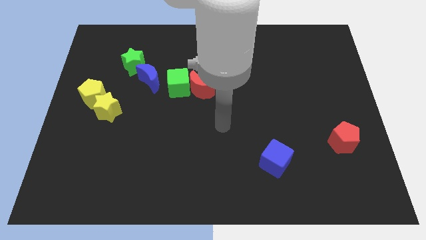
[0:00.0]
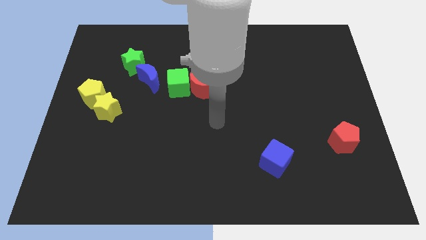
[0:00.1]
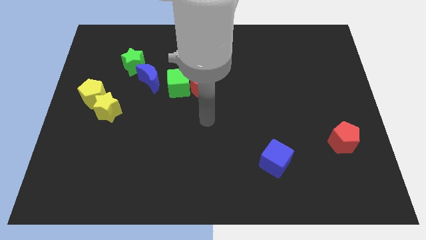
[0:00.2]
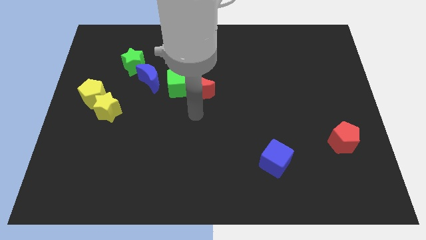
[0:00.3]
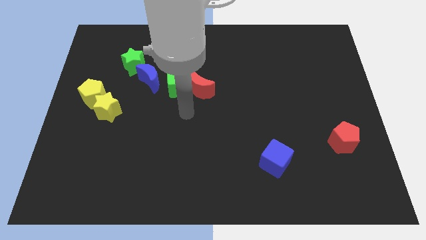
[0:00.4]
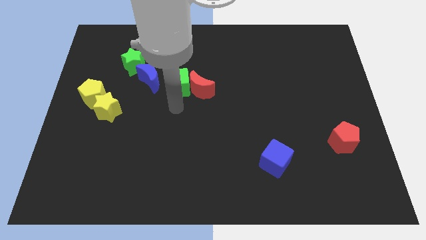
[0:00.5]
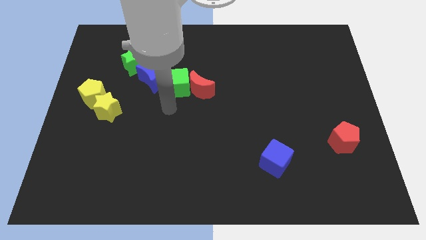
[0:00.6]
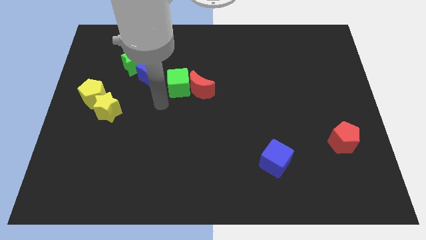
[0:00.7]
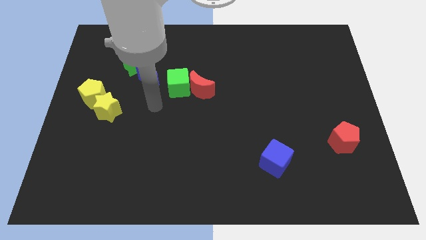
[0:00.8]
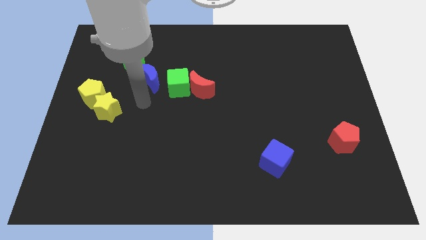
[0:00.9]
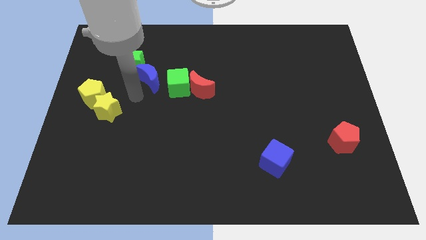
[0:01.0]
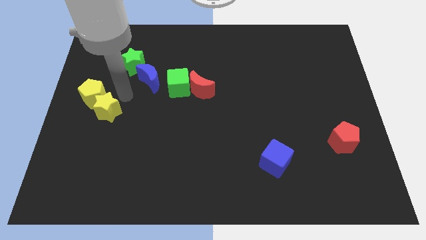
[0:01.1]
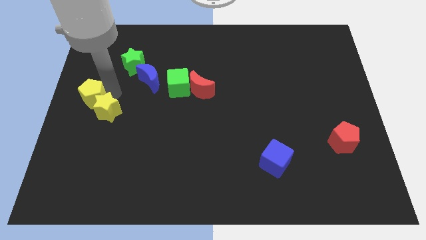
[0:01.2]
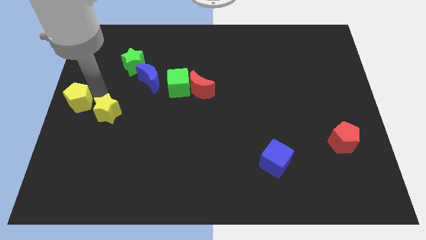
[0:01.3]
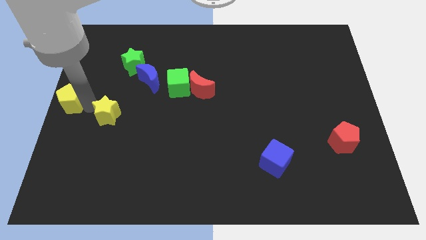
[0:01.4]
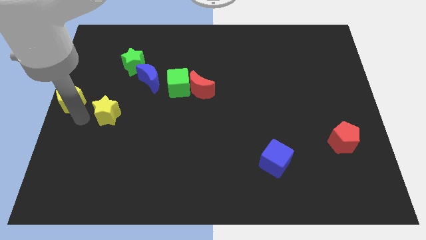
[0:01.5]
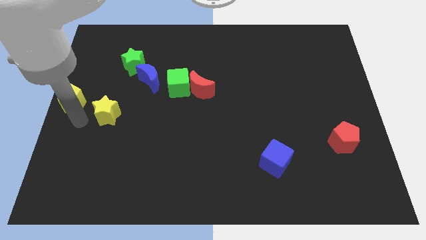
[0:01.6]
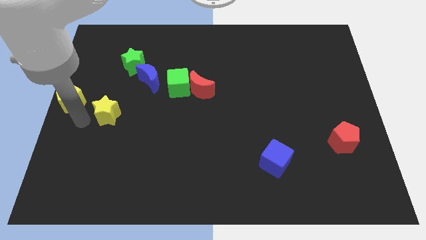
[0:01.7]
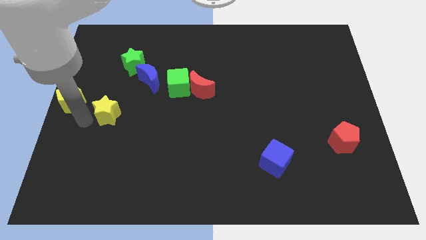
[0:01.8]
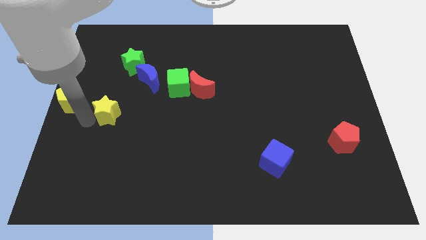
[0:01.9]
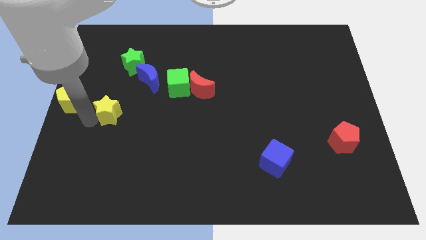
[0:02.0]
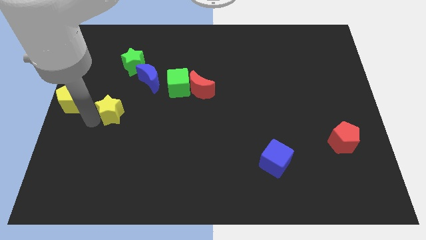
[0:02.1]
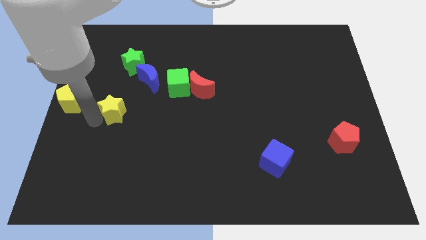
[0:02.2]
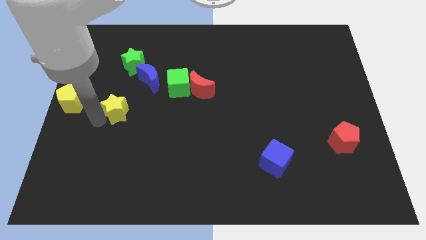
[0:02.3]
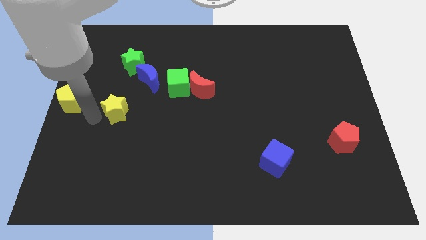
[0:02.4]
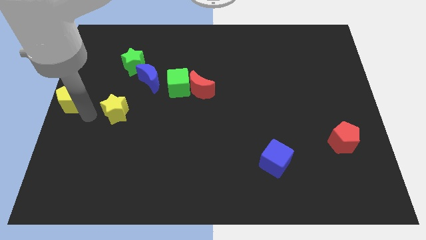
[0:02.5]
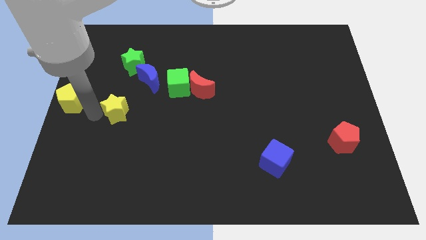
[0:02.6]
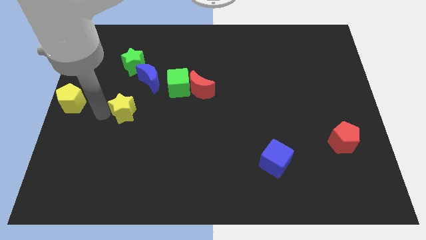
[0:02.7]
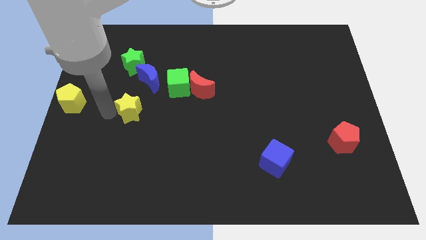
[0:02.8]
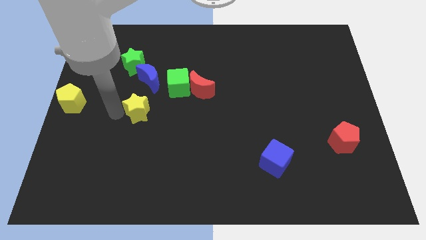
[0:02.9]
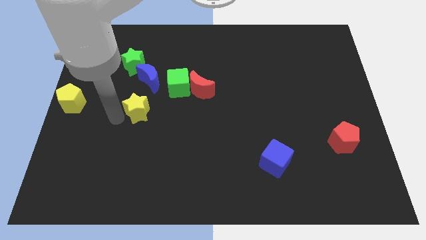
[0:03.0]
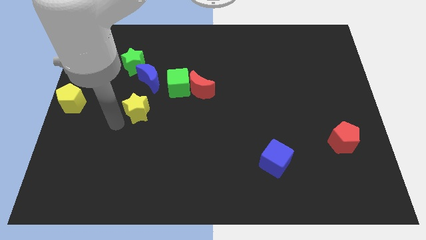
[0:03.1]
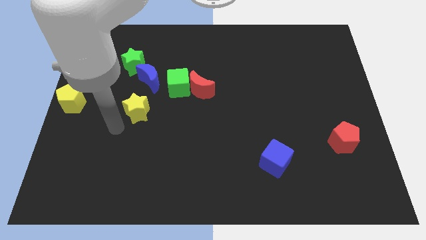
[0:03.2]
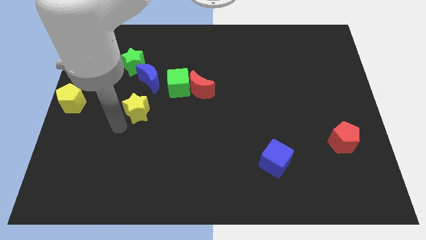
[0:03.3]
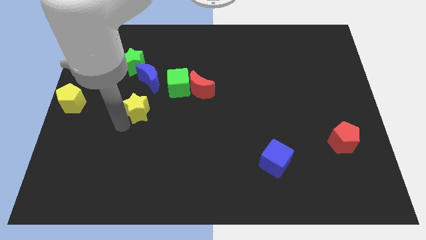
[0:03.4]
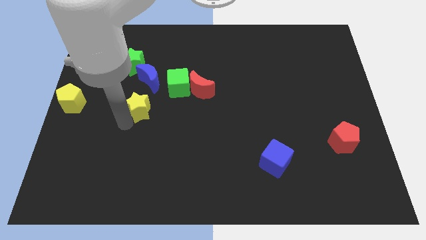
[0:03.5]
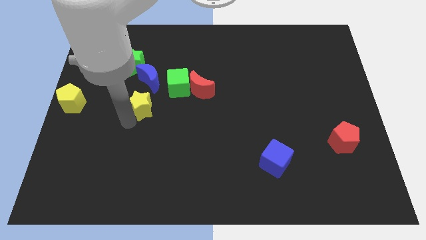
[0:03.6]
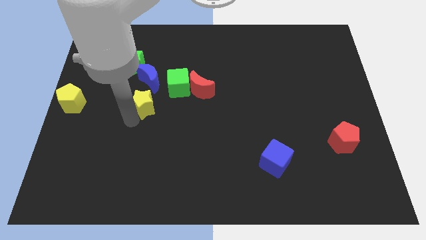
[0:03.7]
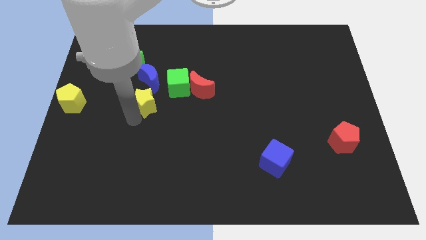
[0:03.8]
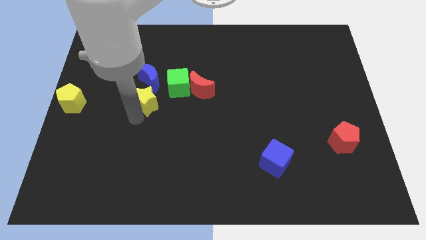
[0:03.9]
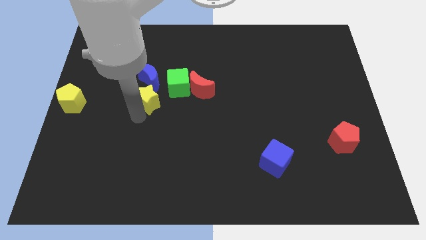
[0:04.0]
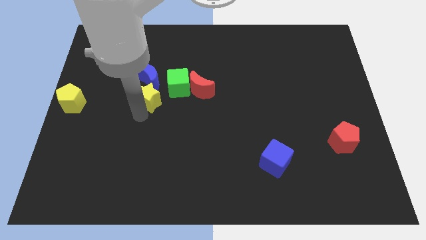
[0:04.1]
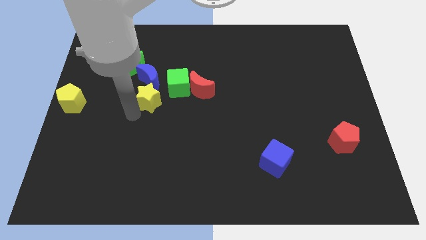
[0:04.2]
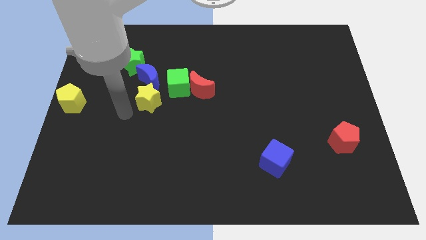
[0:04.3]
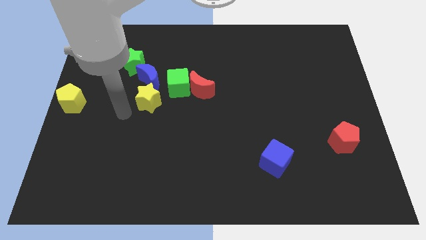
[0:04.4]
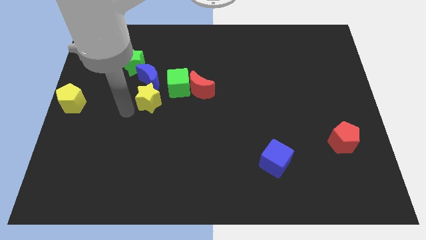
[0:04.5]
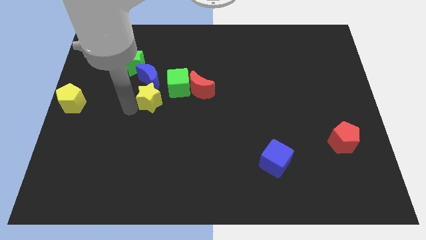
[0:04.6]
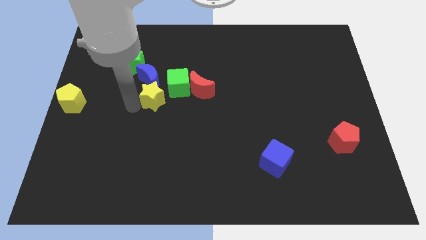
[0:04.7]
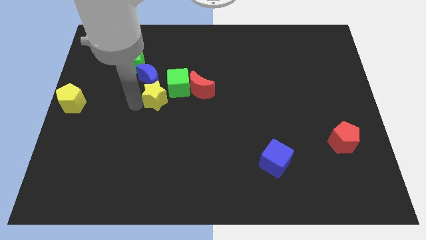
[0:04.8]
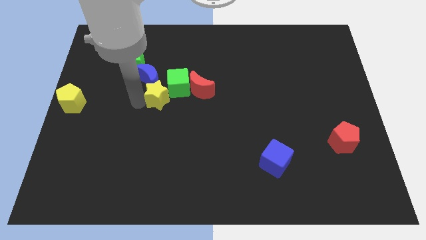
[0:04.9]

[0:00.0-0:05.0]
move the yellow star close to the green cube

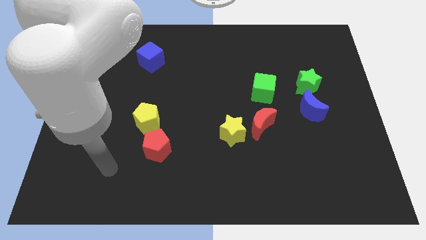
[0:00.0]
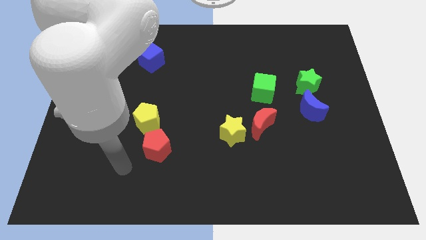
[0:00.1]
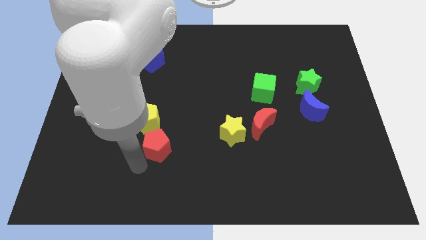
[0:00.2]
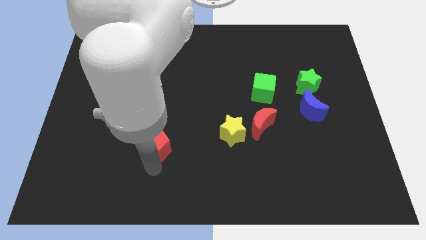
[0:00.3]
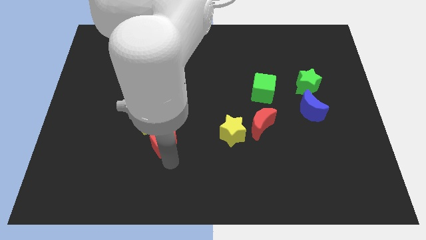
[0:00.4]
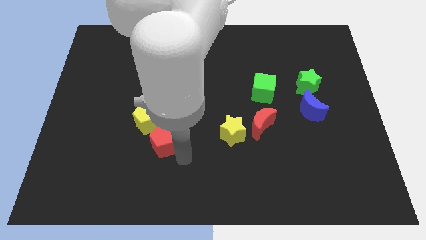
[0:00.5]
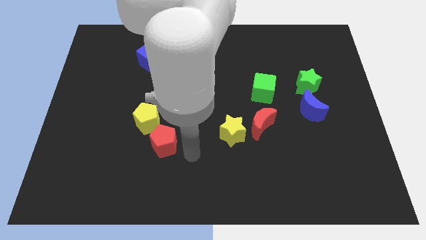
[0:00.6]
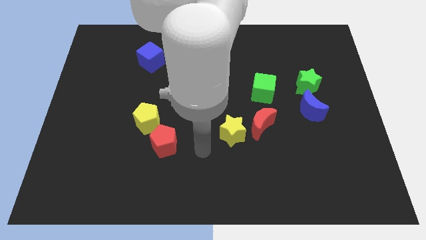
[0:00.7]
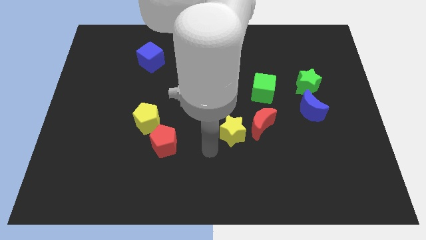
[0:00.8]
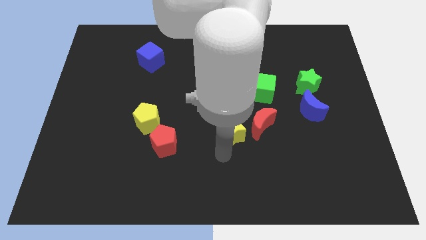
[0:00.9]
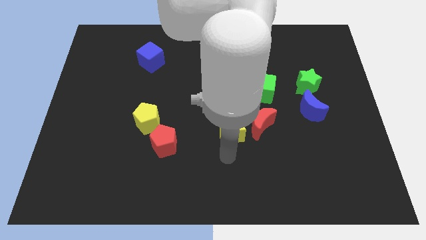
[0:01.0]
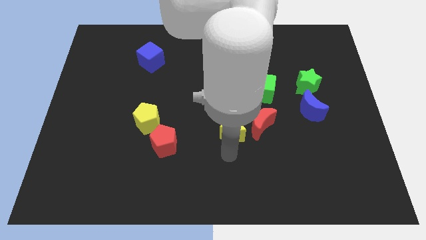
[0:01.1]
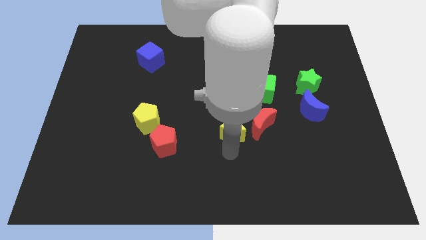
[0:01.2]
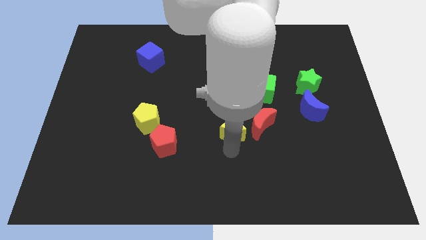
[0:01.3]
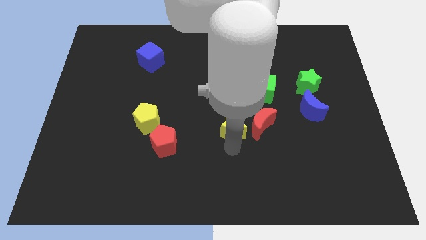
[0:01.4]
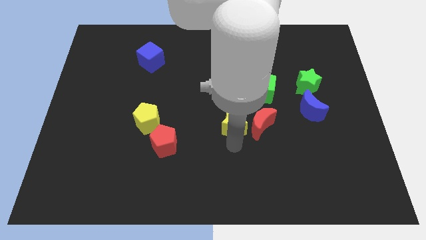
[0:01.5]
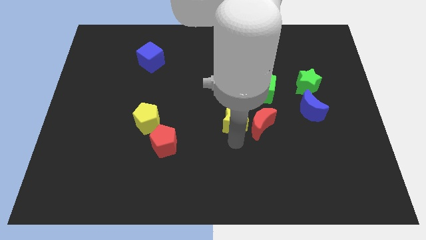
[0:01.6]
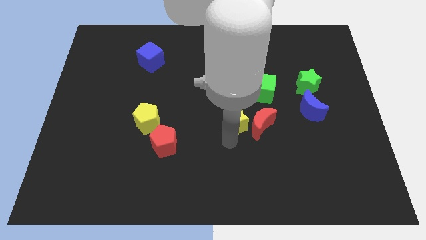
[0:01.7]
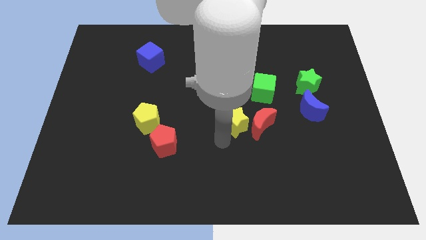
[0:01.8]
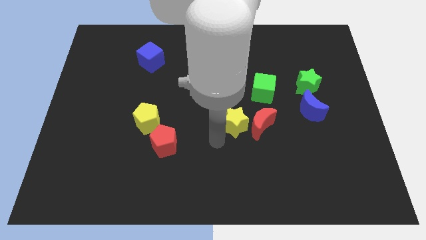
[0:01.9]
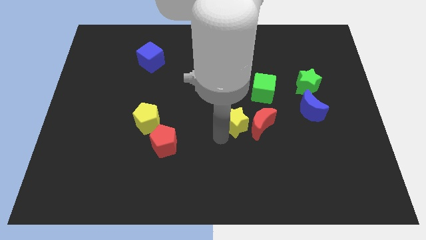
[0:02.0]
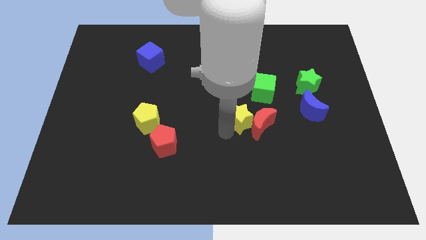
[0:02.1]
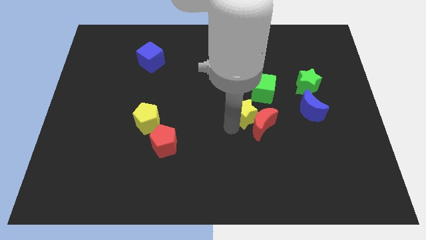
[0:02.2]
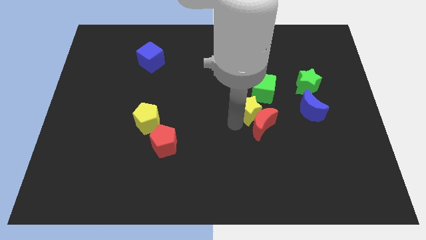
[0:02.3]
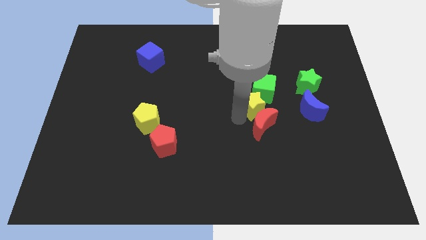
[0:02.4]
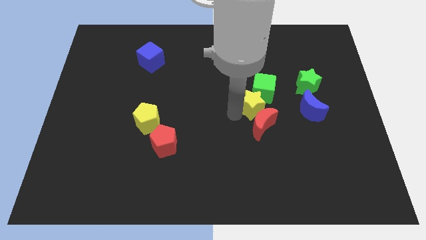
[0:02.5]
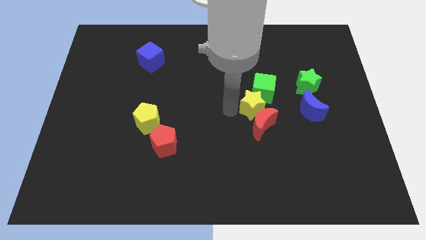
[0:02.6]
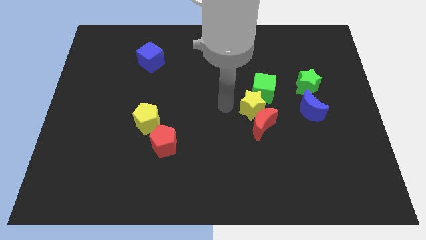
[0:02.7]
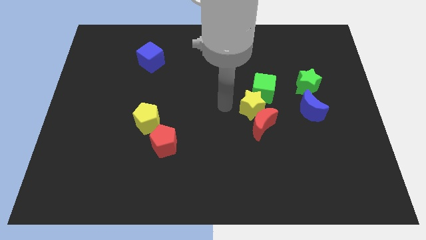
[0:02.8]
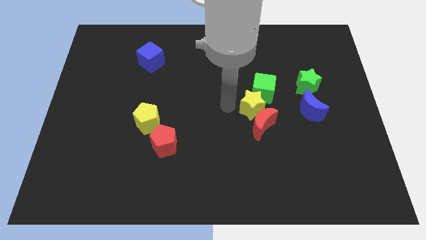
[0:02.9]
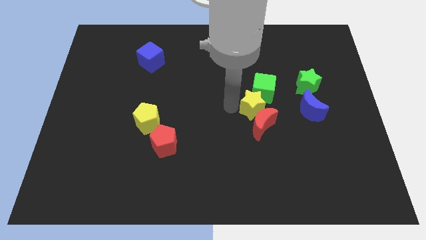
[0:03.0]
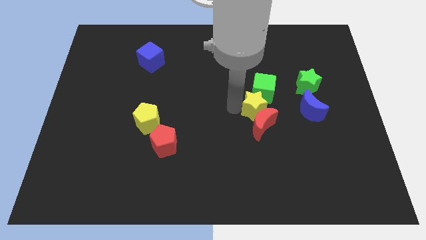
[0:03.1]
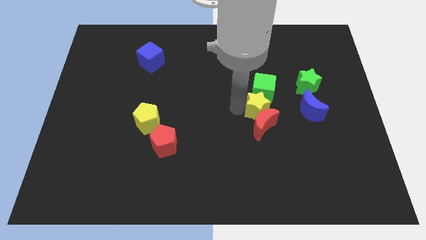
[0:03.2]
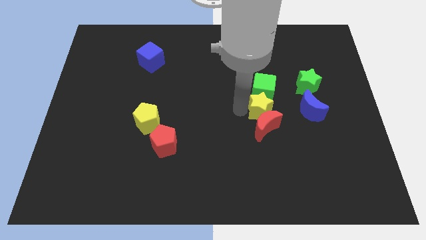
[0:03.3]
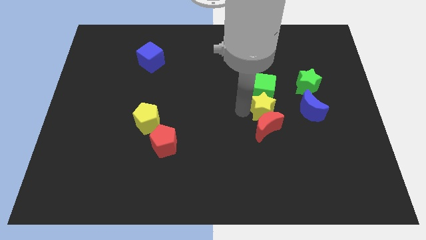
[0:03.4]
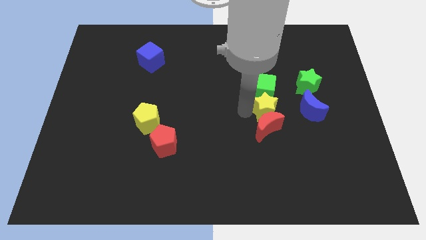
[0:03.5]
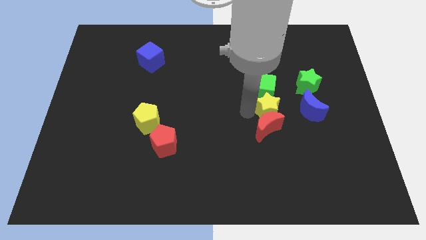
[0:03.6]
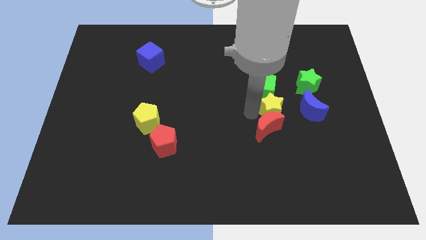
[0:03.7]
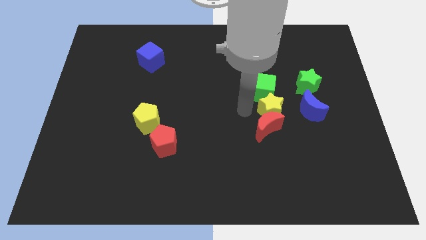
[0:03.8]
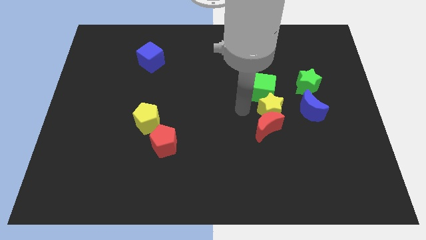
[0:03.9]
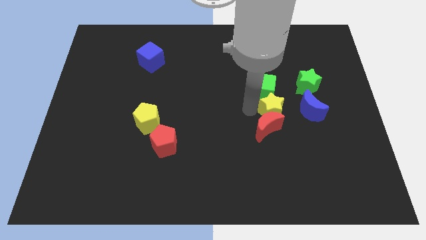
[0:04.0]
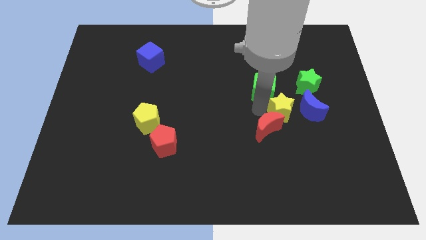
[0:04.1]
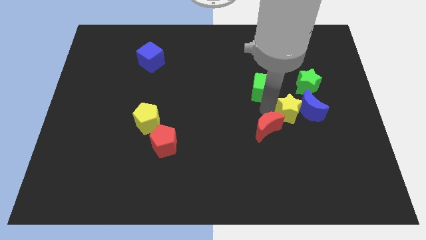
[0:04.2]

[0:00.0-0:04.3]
move the yellow star next to the blue moon
